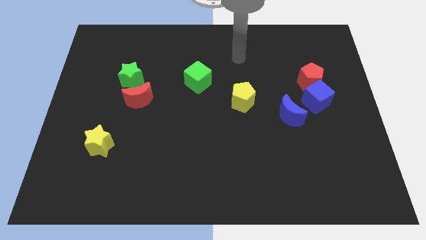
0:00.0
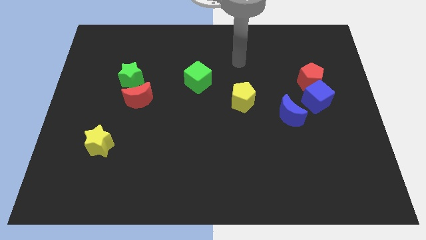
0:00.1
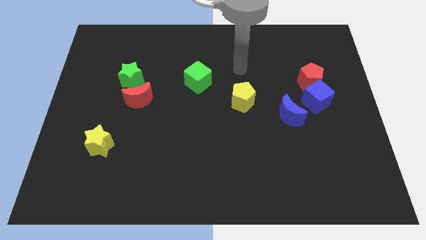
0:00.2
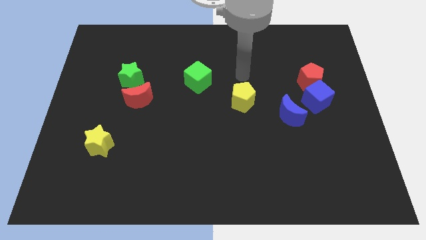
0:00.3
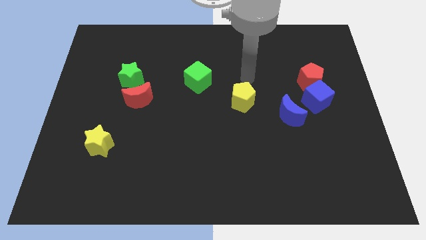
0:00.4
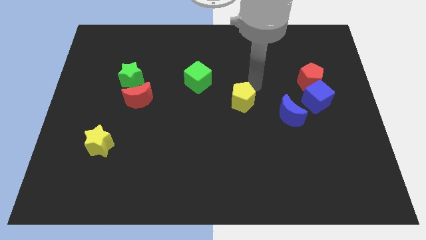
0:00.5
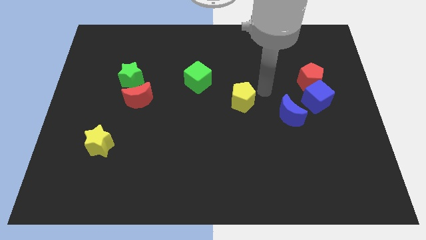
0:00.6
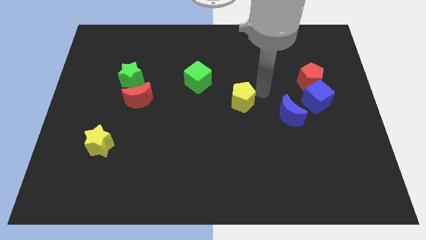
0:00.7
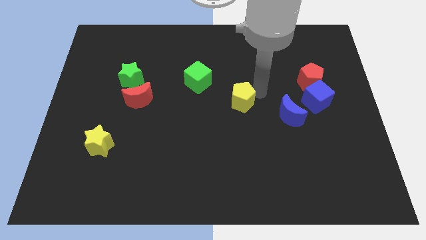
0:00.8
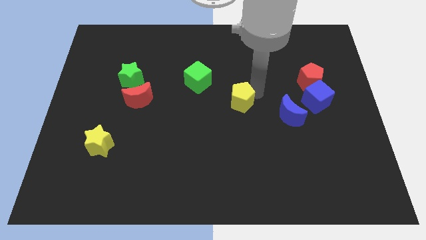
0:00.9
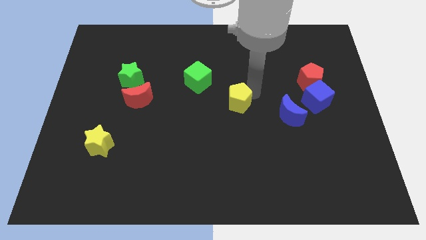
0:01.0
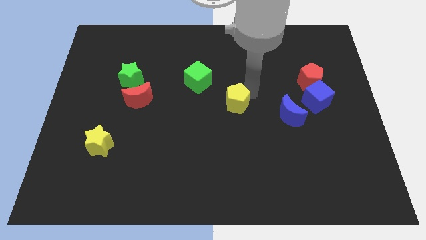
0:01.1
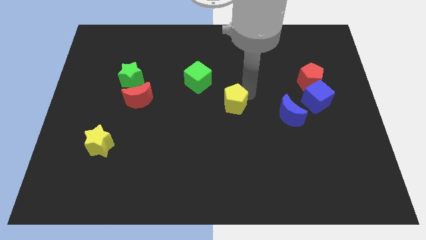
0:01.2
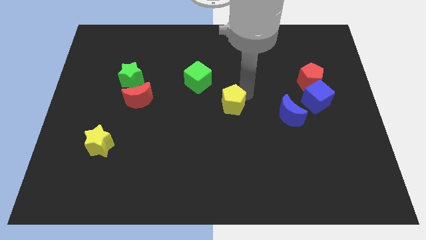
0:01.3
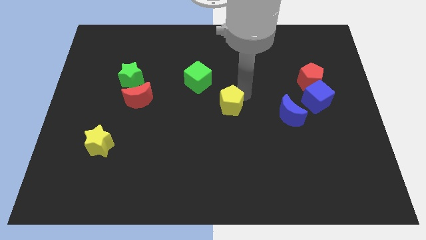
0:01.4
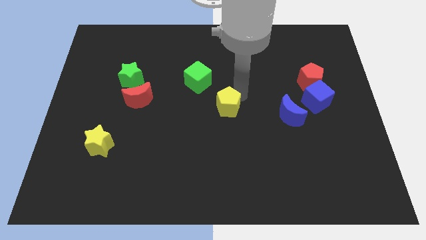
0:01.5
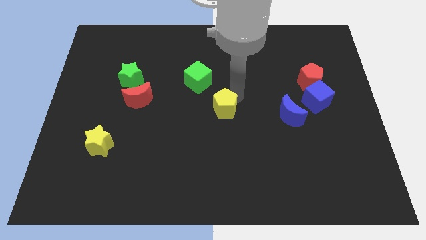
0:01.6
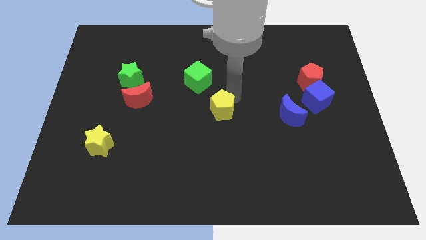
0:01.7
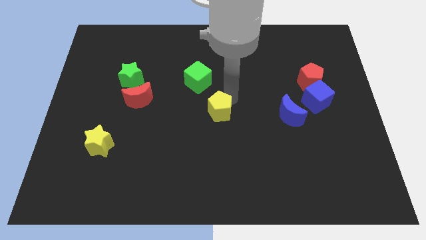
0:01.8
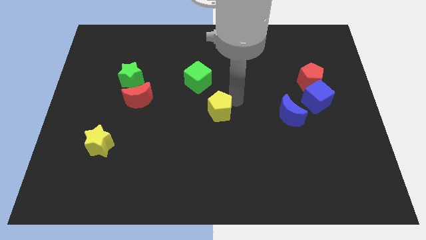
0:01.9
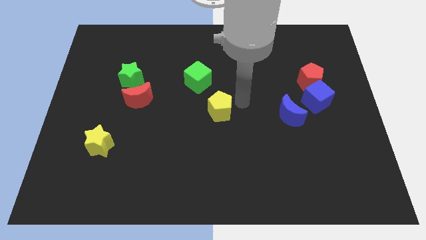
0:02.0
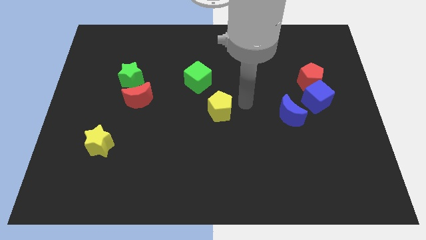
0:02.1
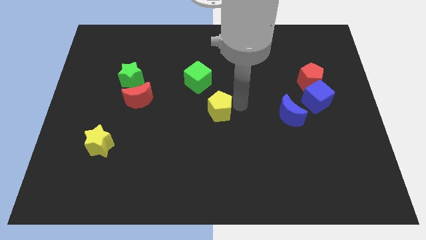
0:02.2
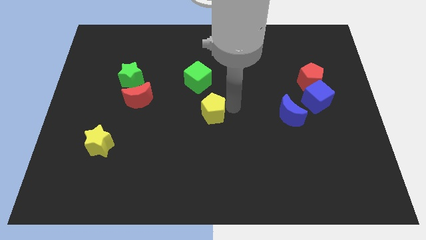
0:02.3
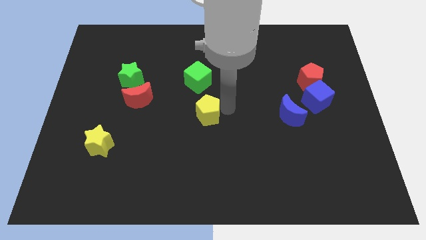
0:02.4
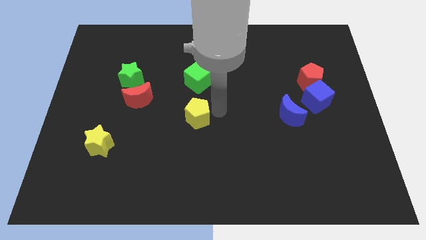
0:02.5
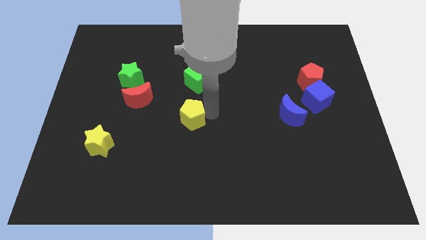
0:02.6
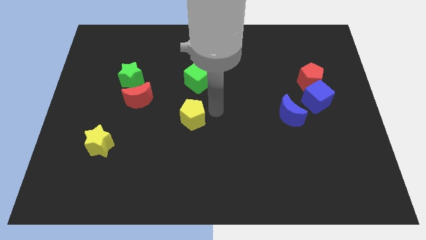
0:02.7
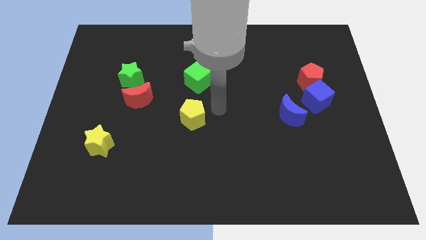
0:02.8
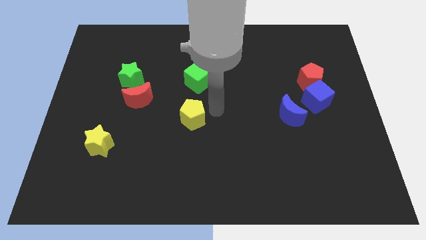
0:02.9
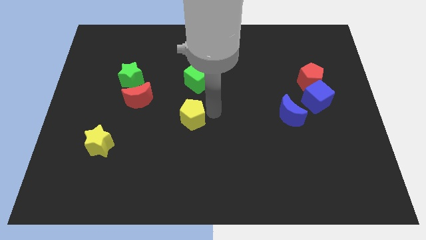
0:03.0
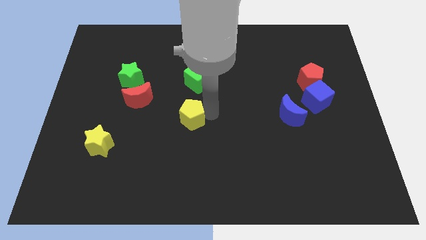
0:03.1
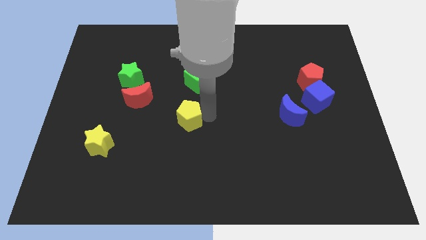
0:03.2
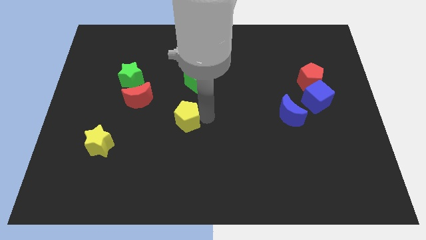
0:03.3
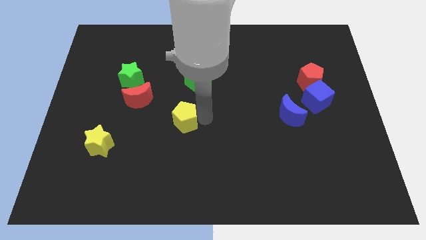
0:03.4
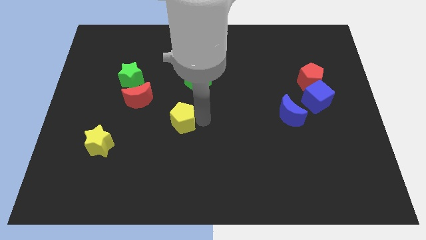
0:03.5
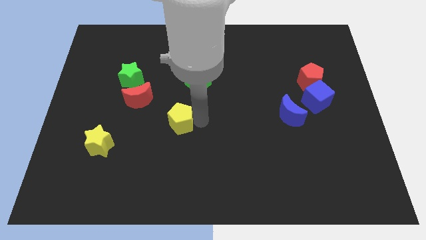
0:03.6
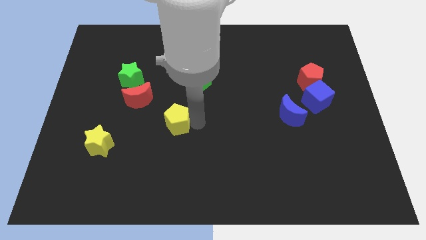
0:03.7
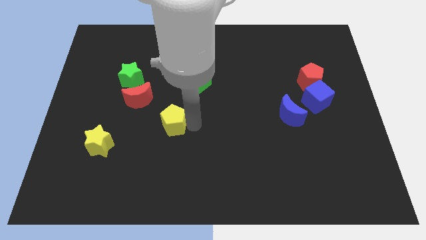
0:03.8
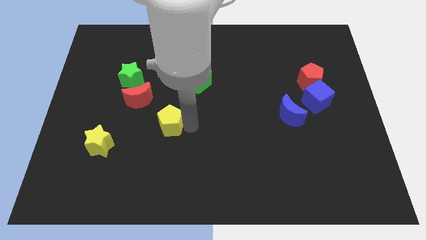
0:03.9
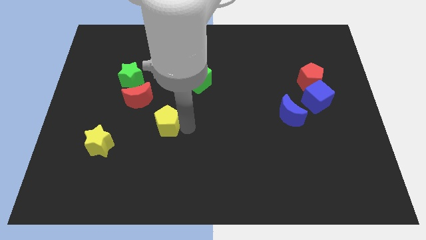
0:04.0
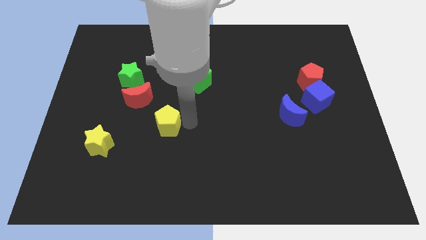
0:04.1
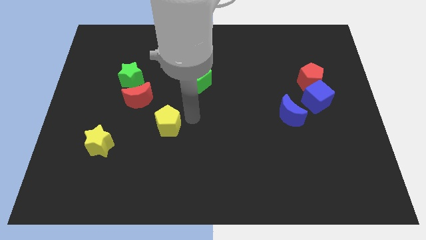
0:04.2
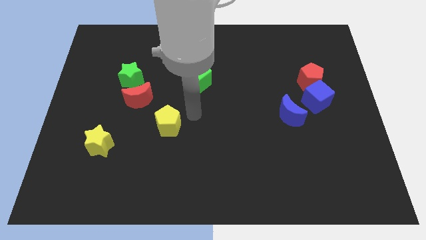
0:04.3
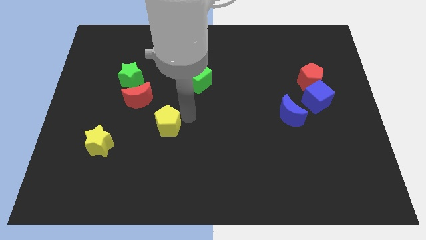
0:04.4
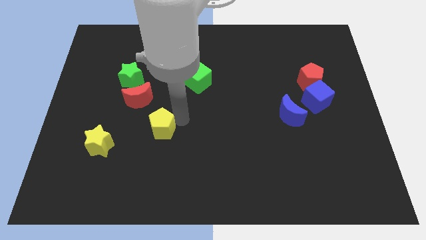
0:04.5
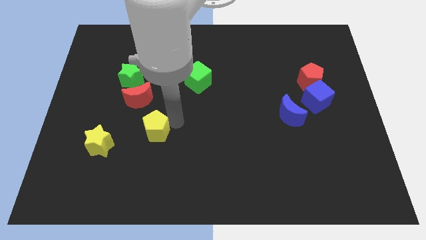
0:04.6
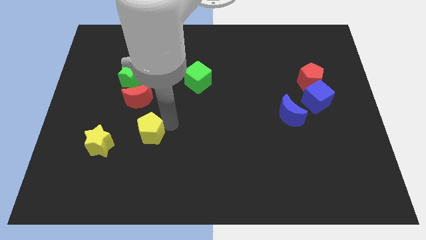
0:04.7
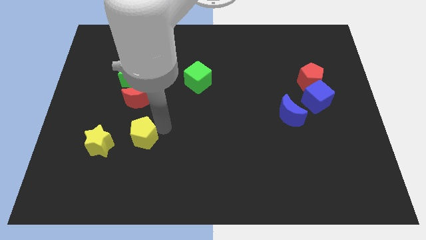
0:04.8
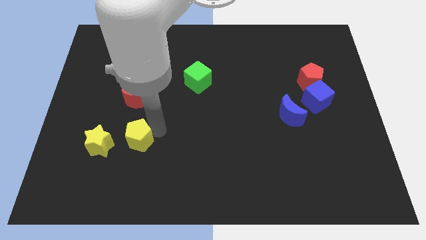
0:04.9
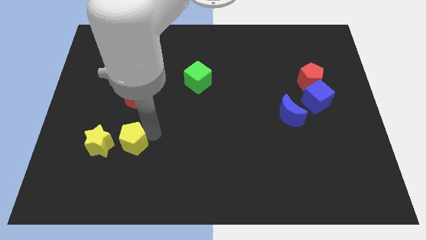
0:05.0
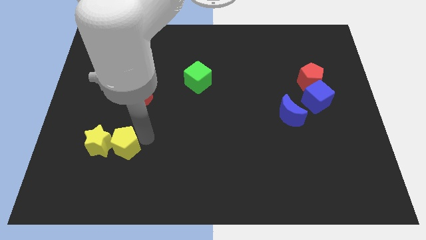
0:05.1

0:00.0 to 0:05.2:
move the yellow pentagon to the yellow star

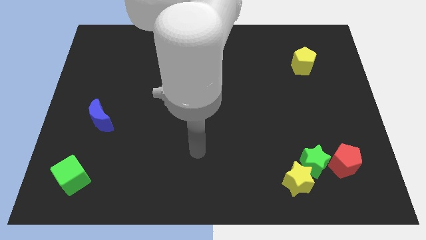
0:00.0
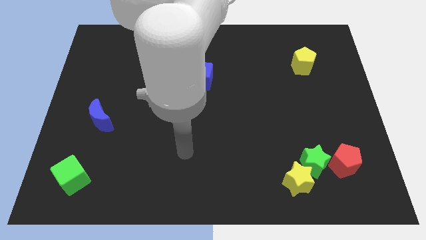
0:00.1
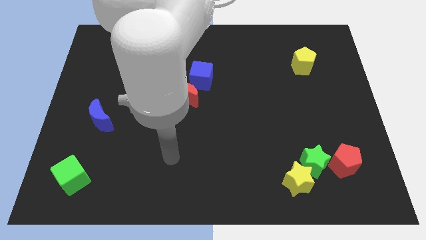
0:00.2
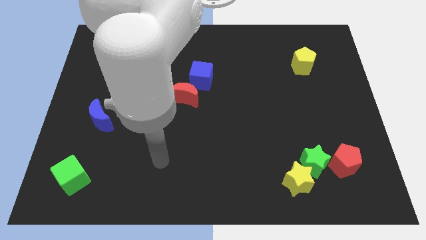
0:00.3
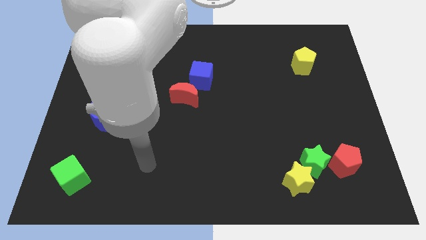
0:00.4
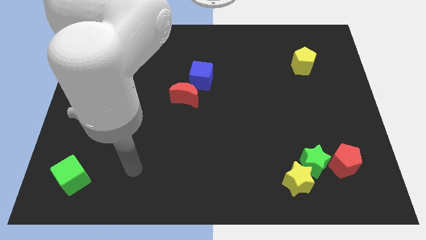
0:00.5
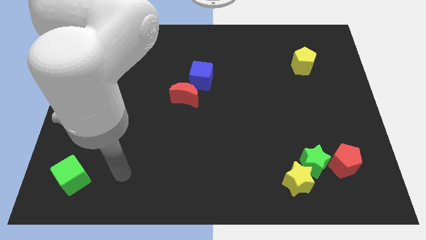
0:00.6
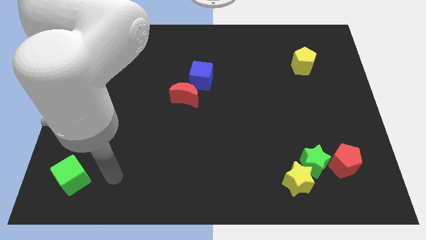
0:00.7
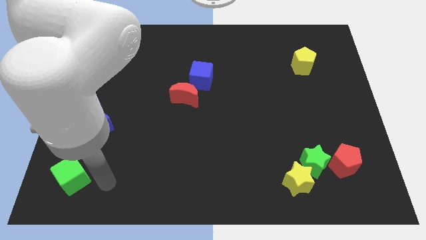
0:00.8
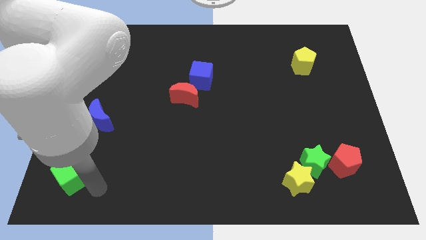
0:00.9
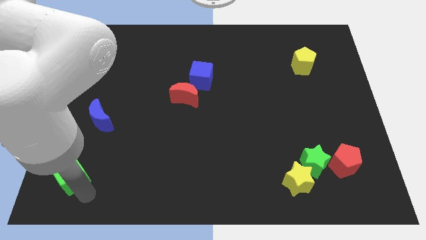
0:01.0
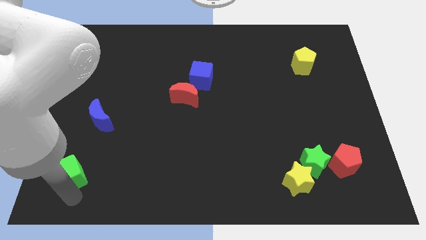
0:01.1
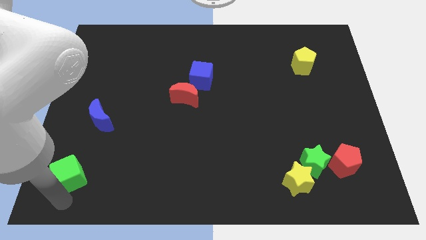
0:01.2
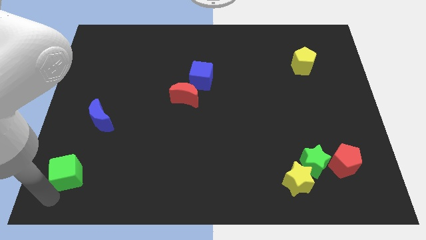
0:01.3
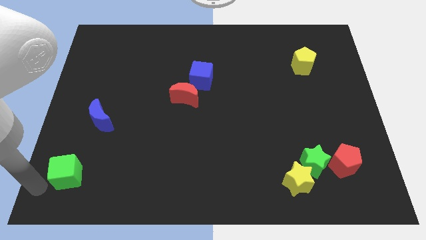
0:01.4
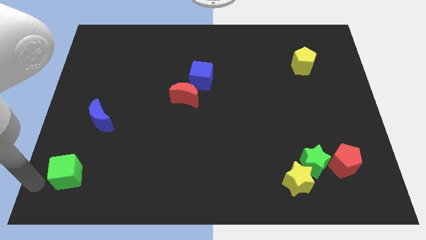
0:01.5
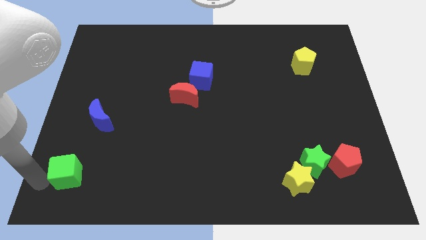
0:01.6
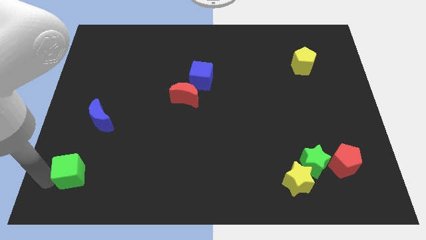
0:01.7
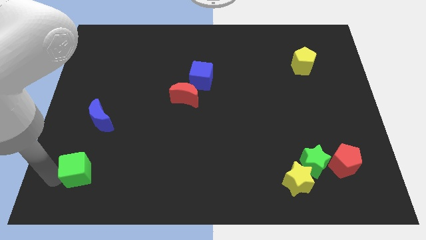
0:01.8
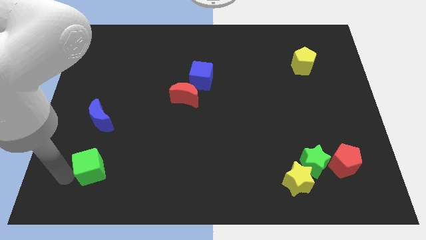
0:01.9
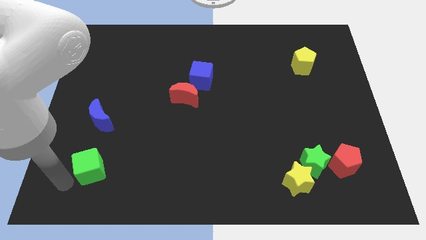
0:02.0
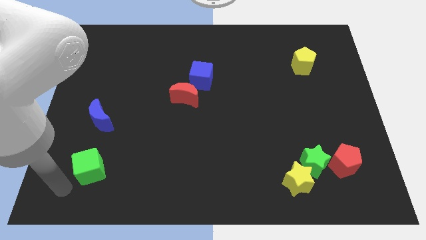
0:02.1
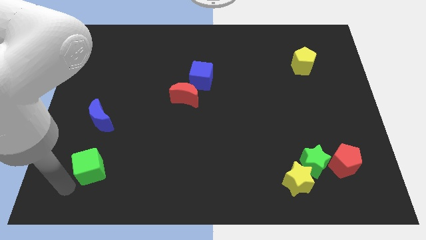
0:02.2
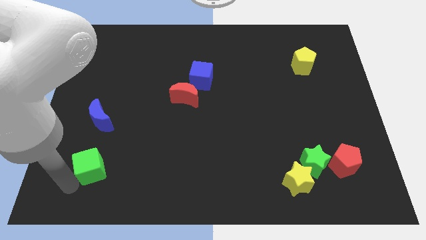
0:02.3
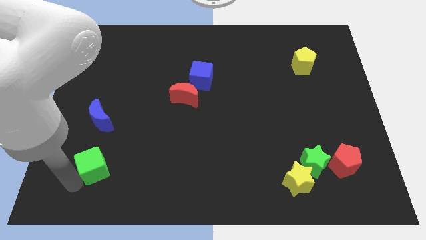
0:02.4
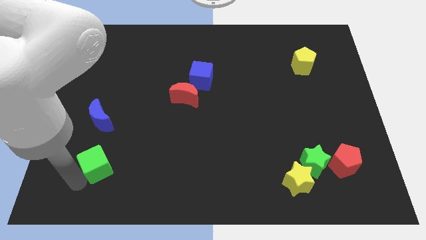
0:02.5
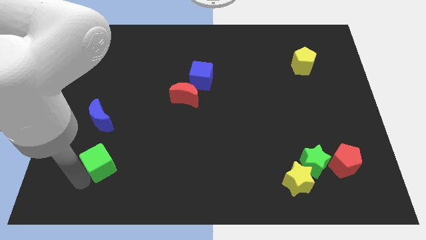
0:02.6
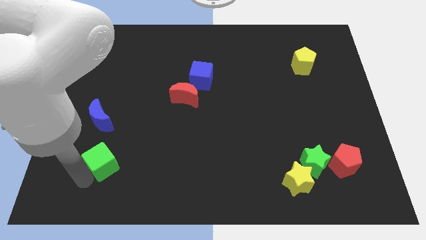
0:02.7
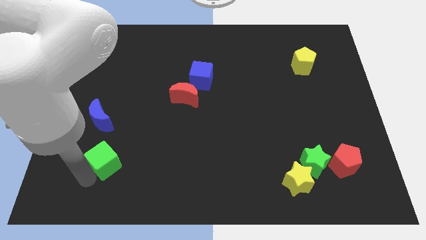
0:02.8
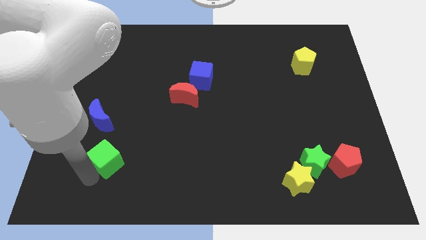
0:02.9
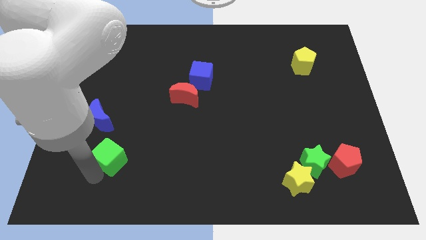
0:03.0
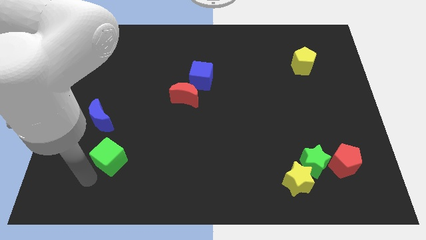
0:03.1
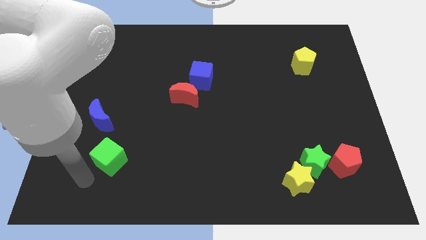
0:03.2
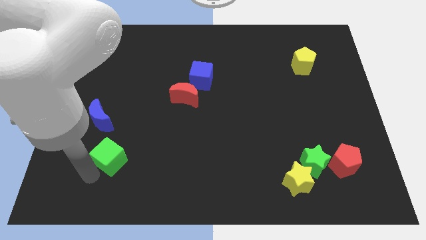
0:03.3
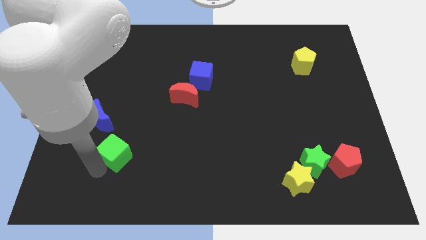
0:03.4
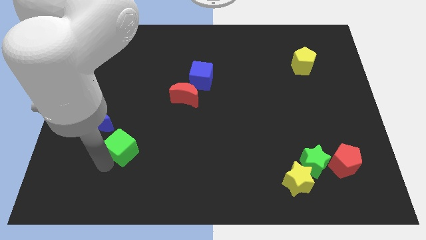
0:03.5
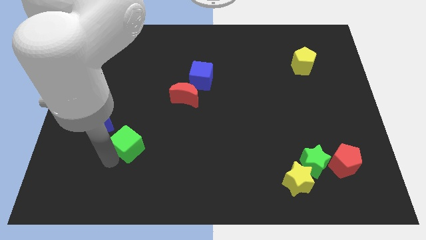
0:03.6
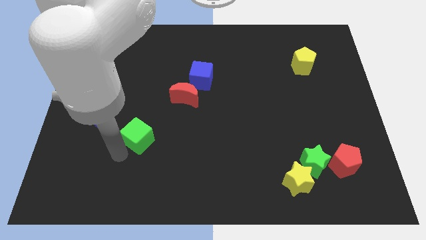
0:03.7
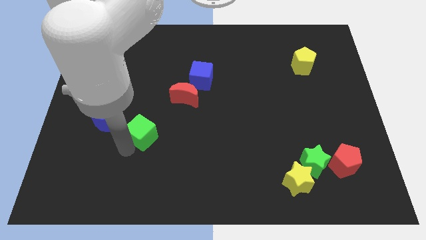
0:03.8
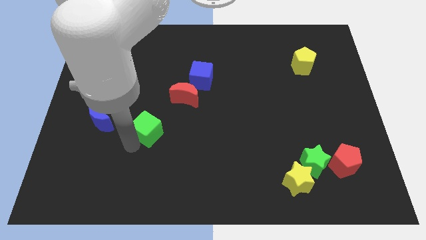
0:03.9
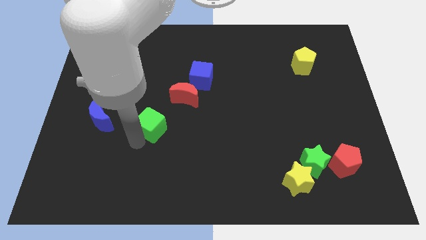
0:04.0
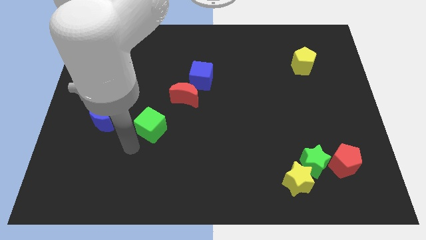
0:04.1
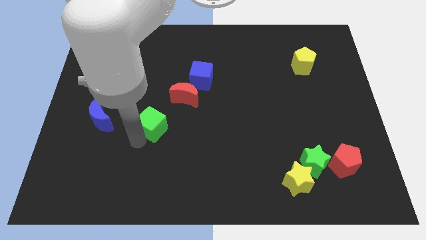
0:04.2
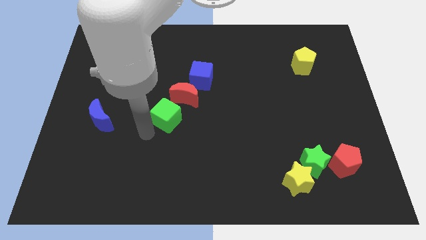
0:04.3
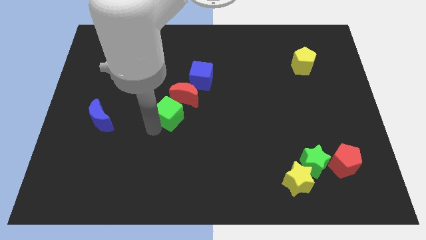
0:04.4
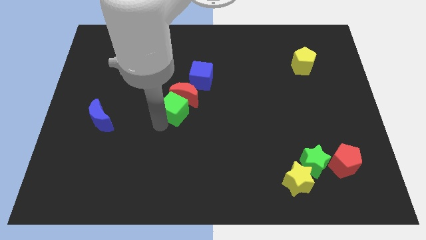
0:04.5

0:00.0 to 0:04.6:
slide the green cube towards the red moon
